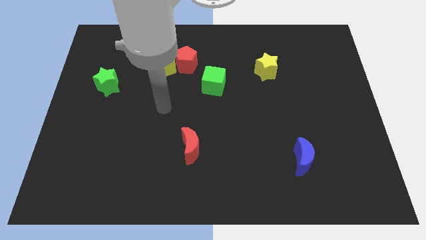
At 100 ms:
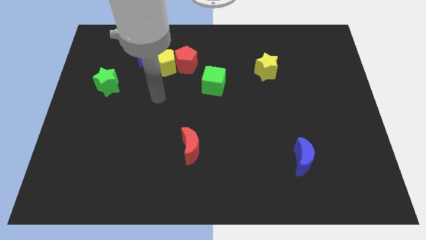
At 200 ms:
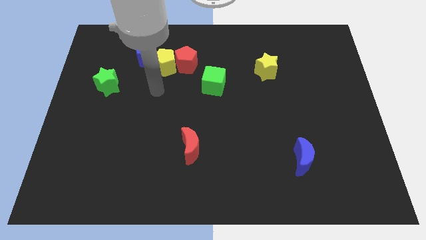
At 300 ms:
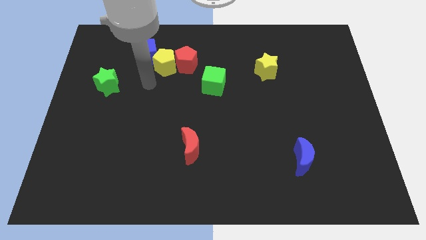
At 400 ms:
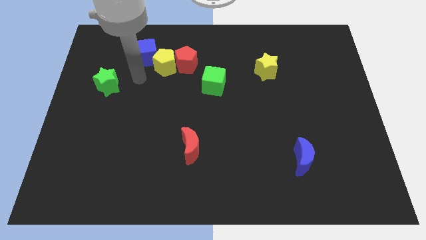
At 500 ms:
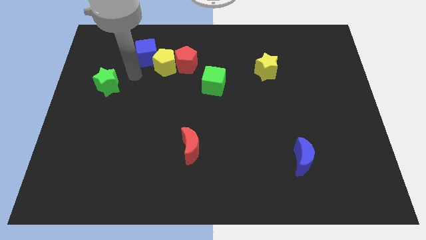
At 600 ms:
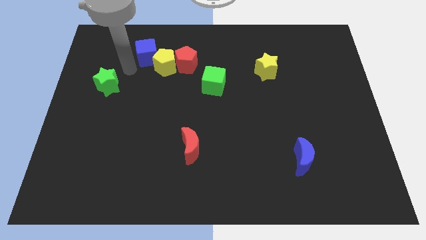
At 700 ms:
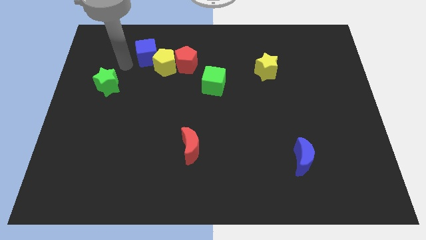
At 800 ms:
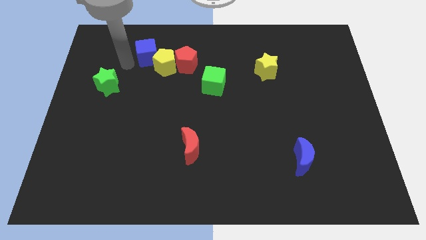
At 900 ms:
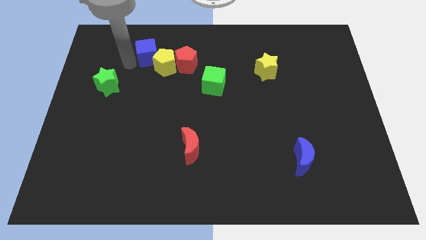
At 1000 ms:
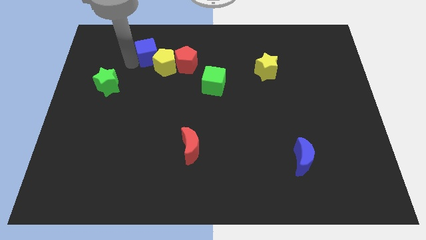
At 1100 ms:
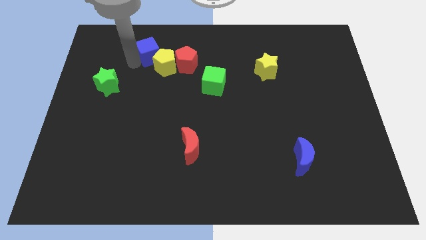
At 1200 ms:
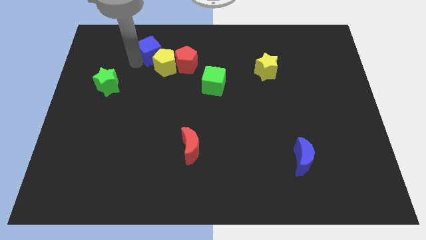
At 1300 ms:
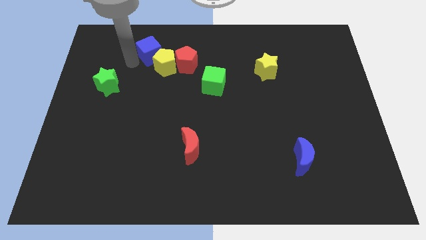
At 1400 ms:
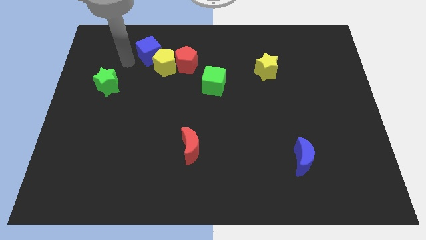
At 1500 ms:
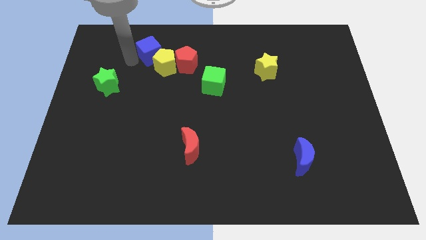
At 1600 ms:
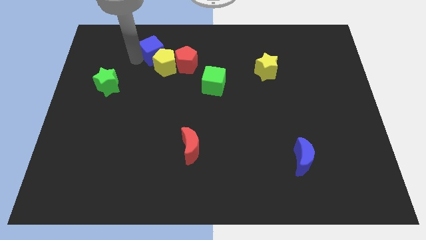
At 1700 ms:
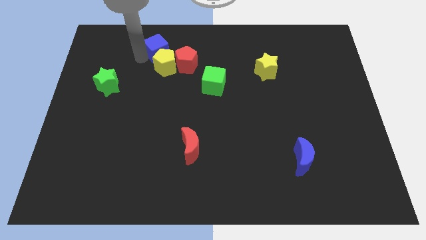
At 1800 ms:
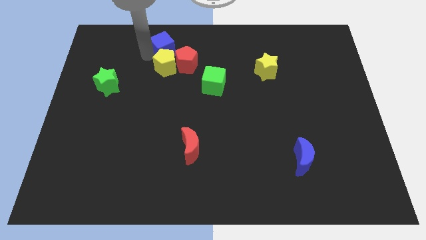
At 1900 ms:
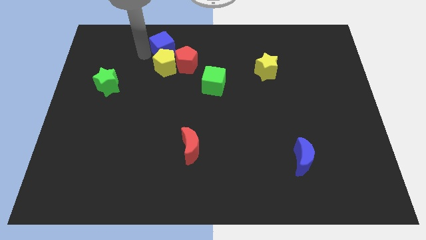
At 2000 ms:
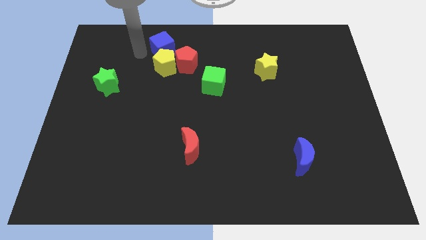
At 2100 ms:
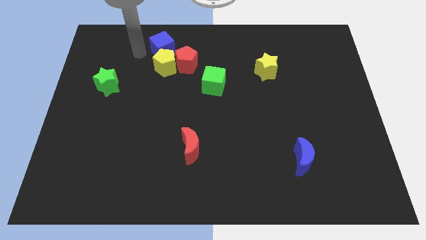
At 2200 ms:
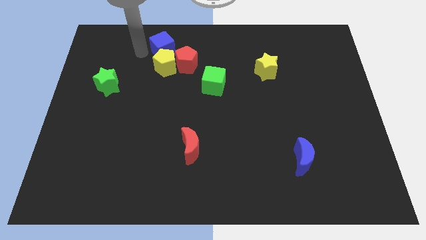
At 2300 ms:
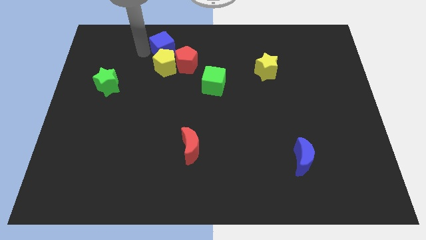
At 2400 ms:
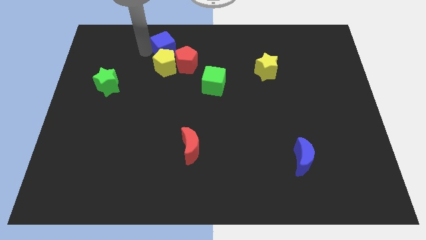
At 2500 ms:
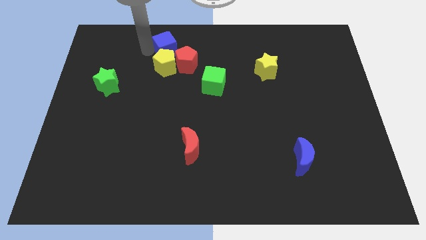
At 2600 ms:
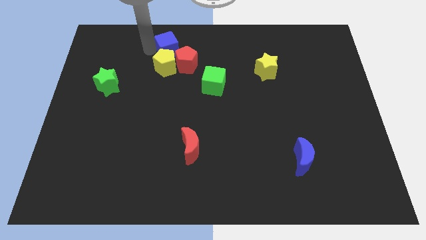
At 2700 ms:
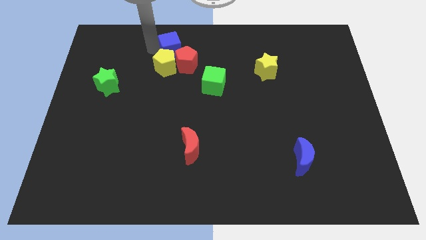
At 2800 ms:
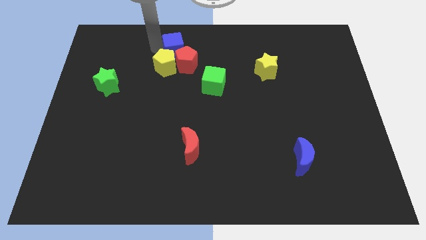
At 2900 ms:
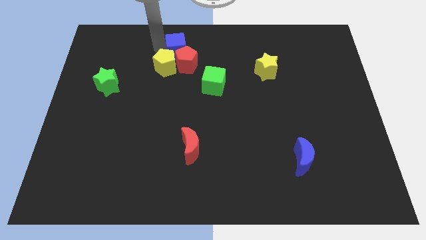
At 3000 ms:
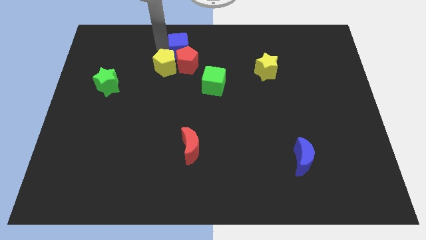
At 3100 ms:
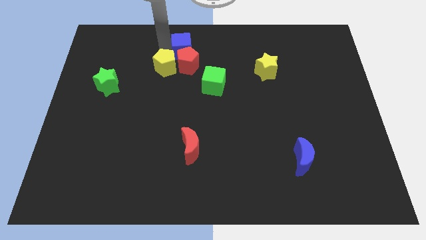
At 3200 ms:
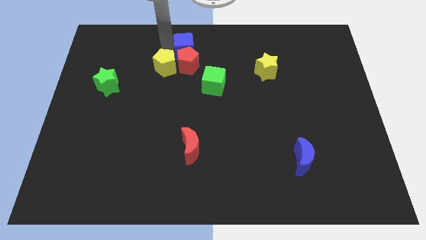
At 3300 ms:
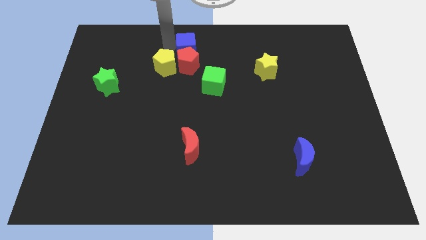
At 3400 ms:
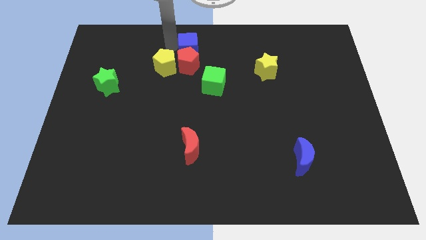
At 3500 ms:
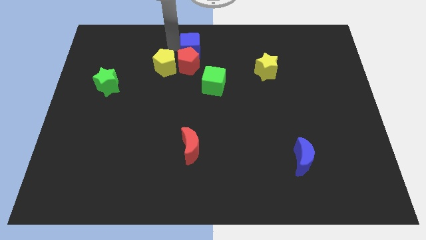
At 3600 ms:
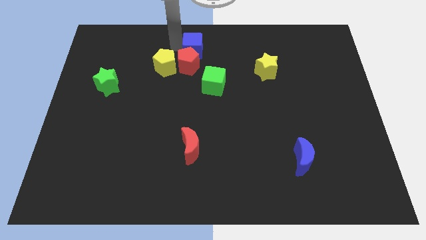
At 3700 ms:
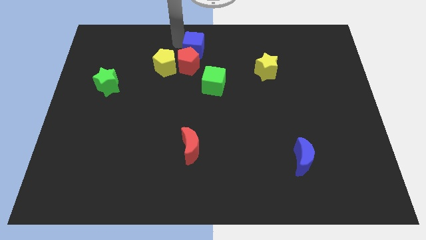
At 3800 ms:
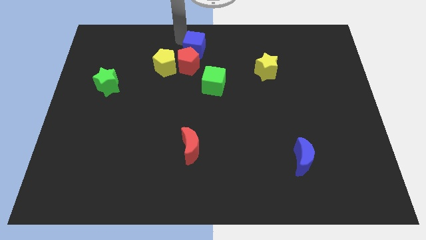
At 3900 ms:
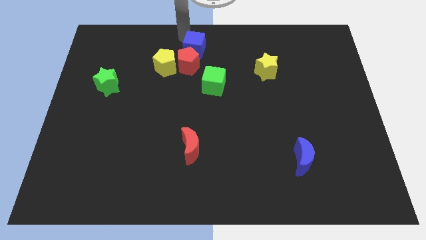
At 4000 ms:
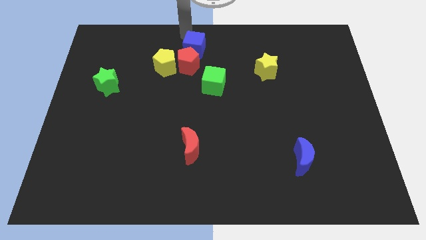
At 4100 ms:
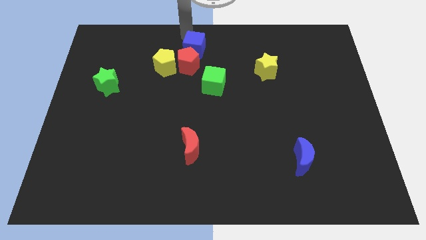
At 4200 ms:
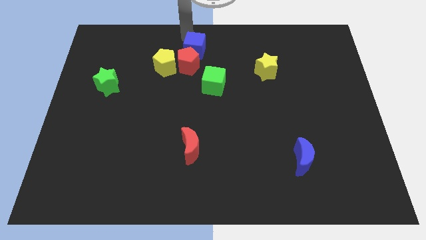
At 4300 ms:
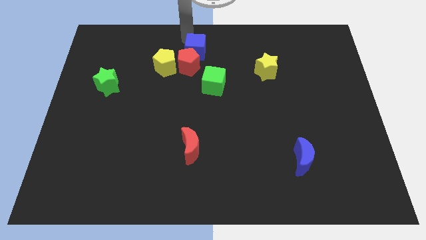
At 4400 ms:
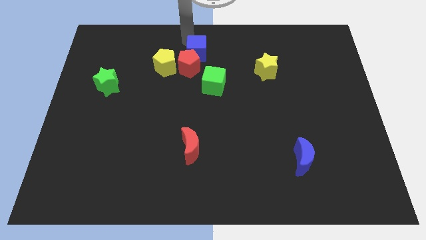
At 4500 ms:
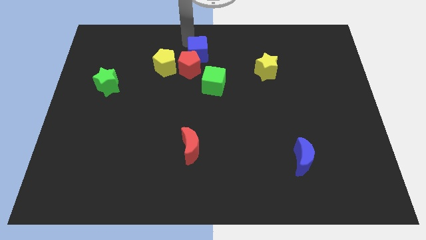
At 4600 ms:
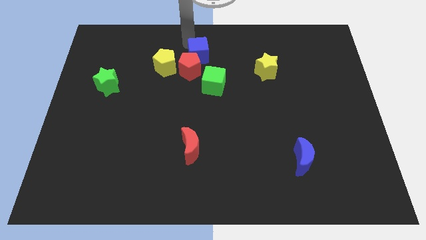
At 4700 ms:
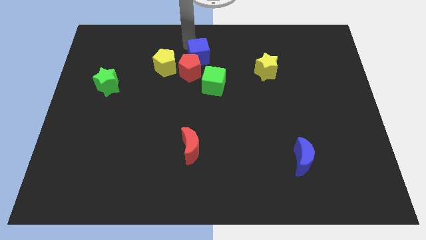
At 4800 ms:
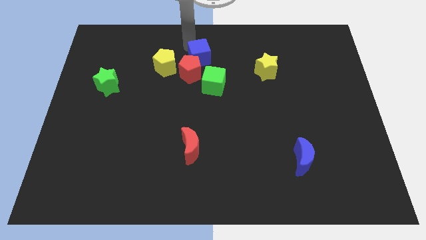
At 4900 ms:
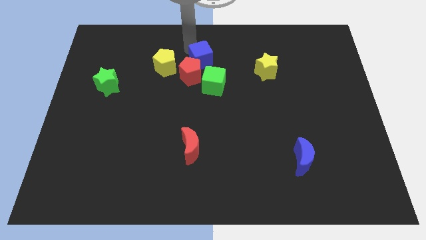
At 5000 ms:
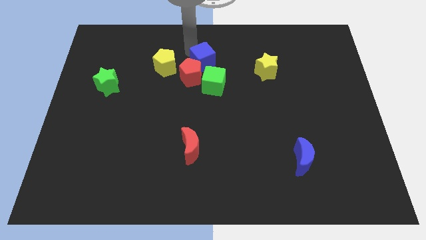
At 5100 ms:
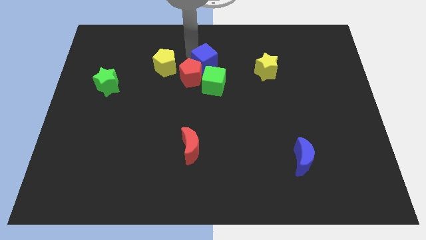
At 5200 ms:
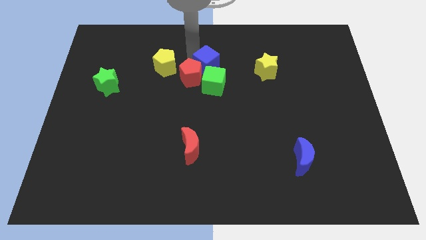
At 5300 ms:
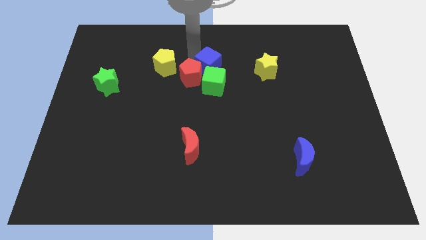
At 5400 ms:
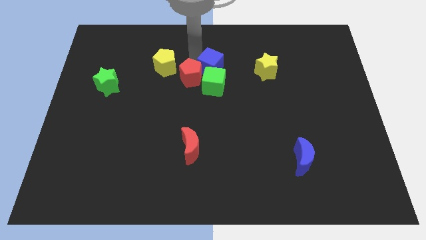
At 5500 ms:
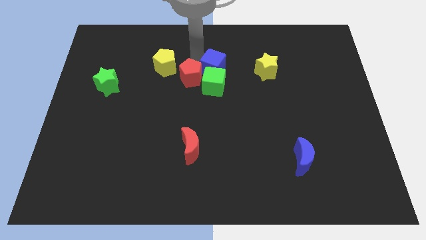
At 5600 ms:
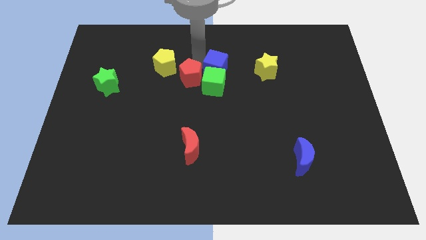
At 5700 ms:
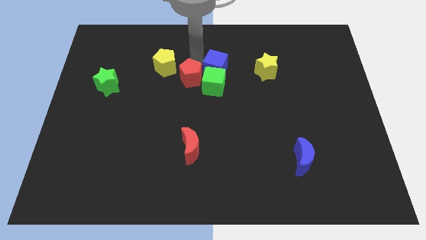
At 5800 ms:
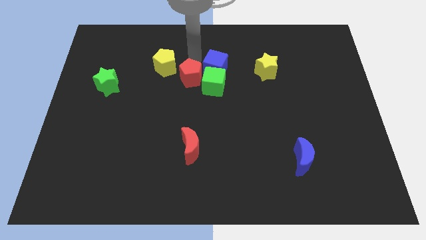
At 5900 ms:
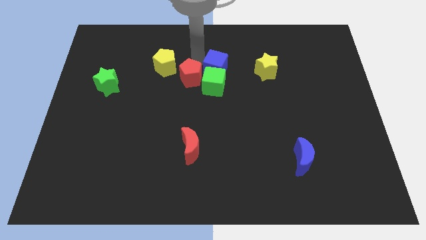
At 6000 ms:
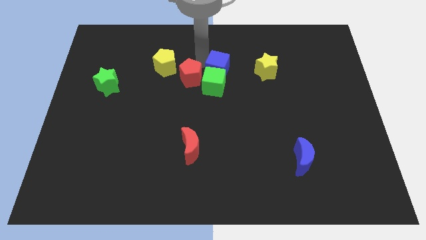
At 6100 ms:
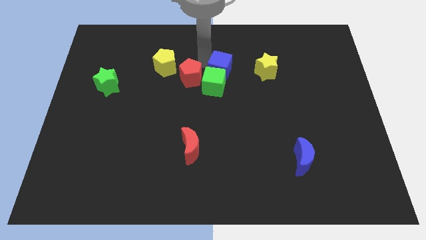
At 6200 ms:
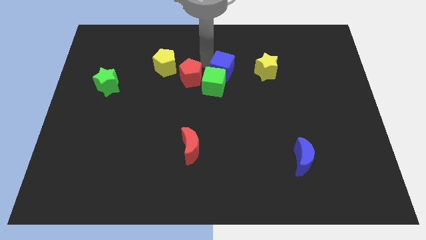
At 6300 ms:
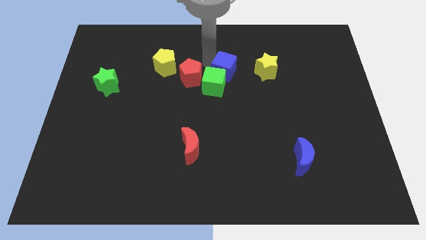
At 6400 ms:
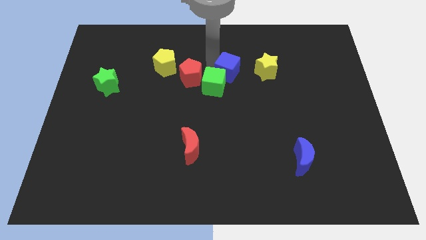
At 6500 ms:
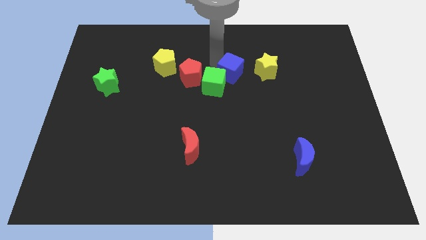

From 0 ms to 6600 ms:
slide the blue cube just right of the green cube

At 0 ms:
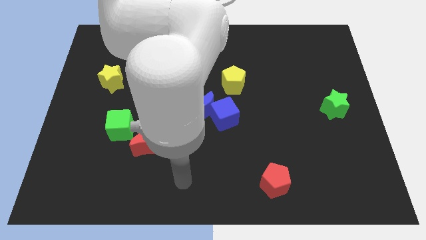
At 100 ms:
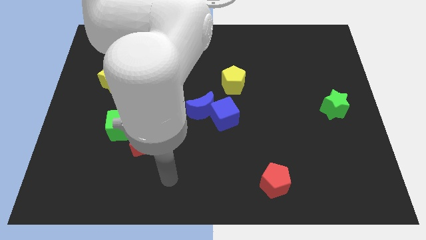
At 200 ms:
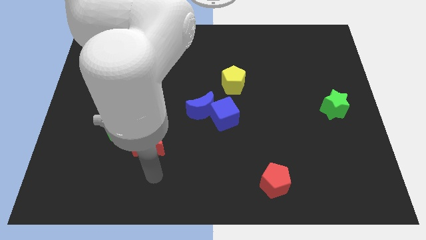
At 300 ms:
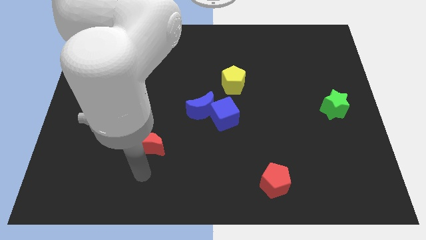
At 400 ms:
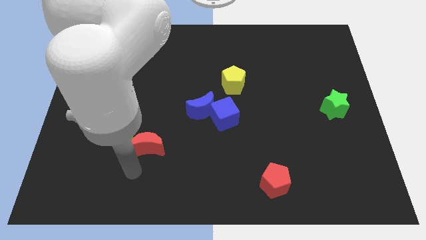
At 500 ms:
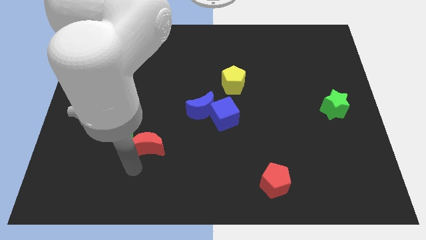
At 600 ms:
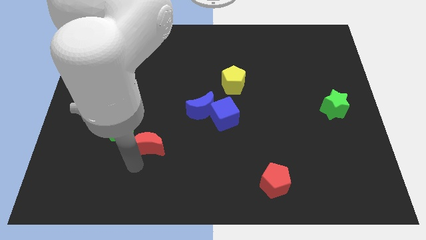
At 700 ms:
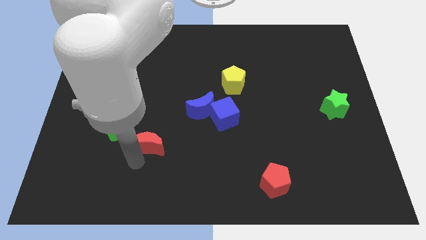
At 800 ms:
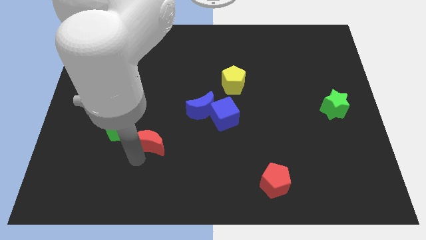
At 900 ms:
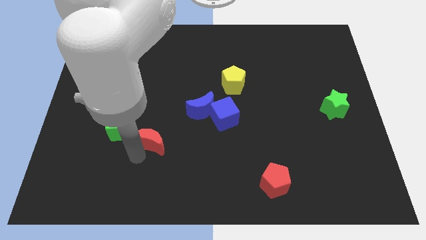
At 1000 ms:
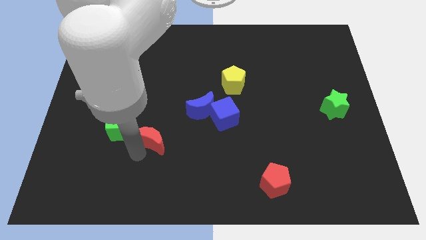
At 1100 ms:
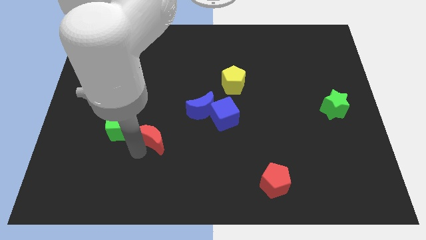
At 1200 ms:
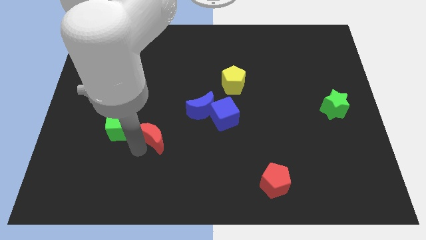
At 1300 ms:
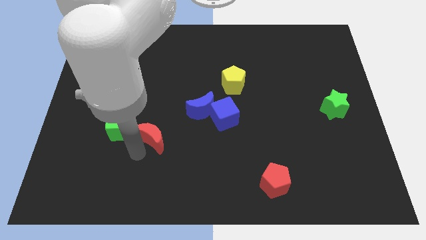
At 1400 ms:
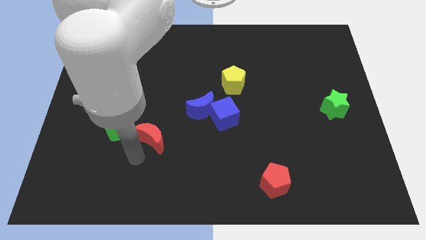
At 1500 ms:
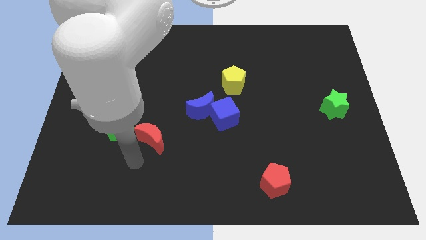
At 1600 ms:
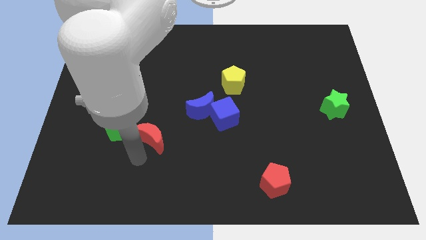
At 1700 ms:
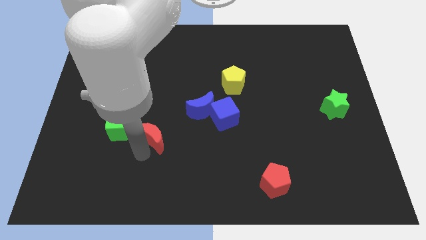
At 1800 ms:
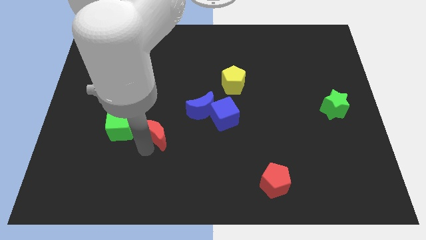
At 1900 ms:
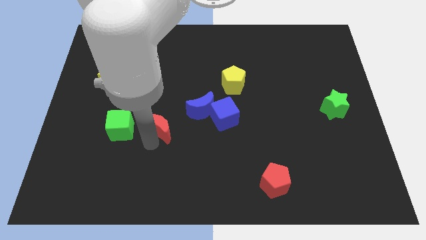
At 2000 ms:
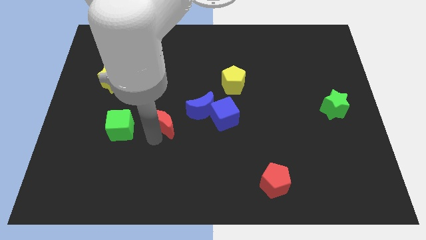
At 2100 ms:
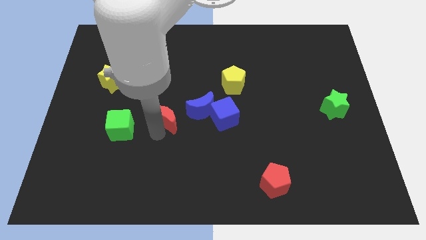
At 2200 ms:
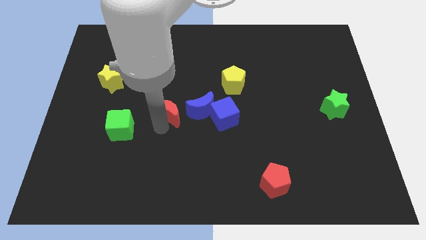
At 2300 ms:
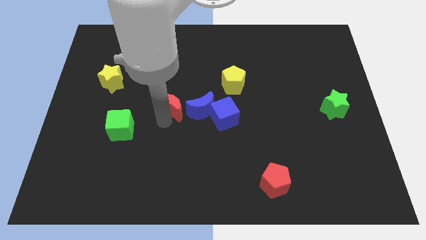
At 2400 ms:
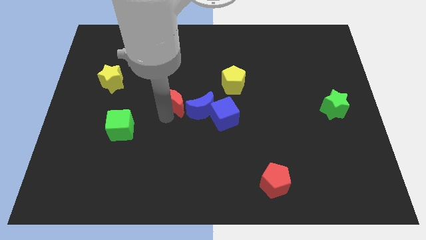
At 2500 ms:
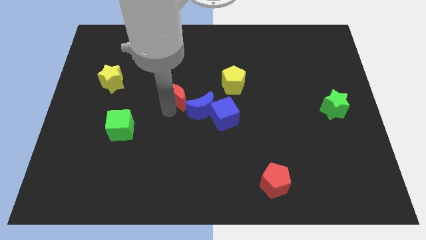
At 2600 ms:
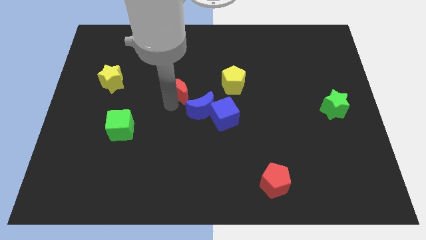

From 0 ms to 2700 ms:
slide the red moon just left of the yellow pentagon
